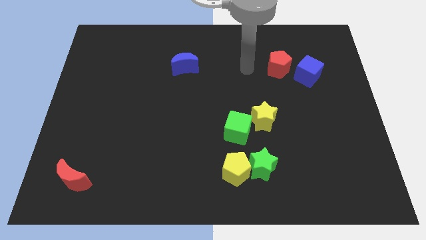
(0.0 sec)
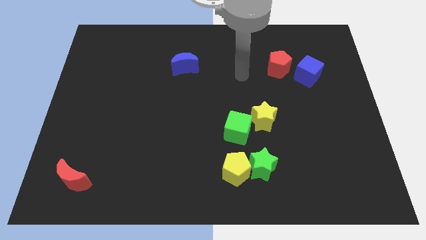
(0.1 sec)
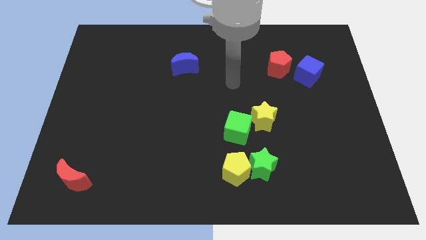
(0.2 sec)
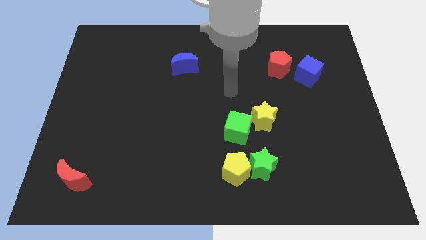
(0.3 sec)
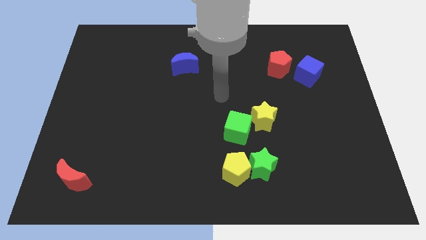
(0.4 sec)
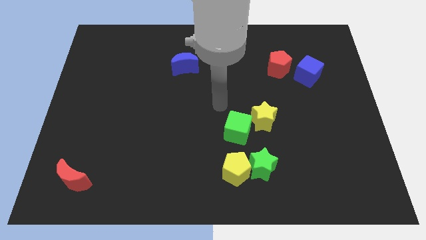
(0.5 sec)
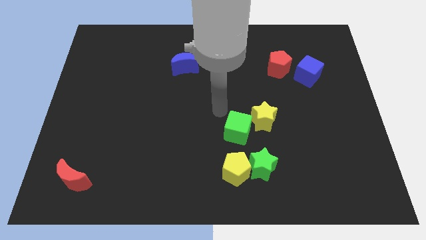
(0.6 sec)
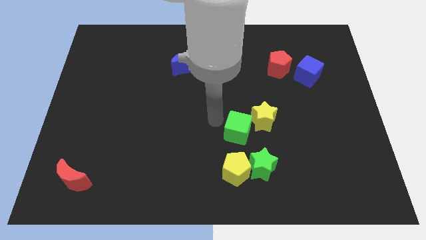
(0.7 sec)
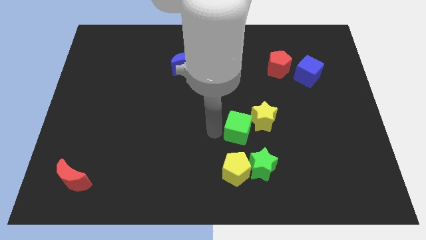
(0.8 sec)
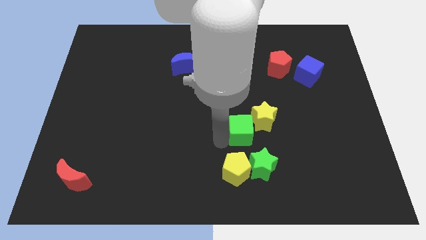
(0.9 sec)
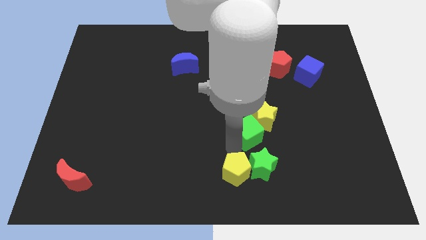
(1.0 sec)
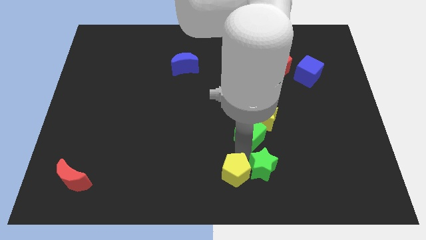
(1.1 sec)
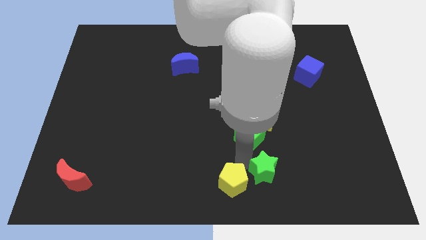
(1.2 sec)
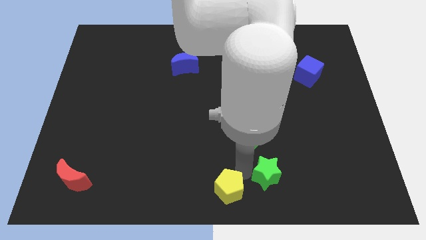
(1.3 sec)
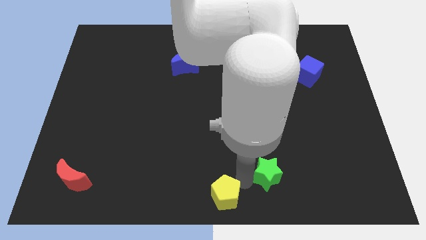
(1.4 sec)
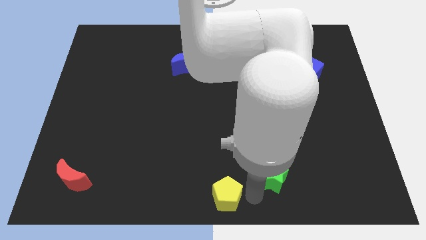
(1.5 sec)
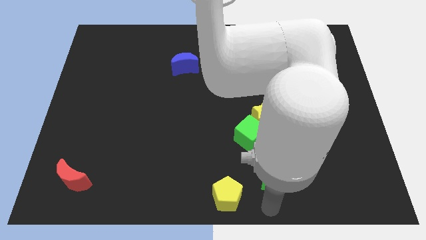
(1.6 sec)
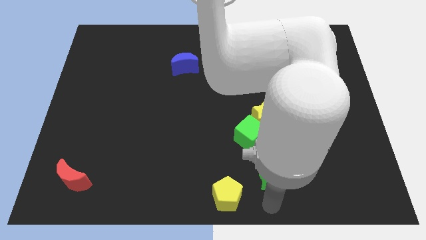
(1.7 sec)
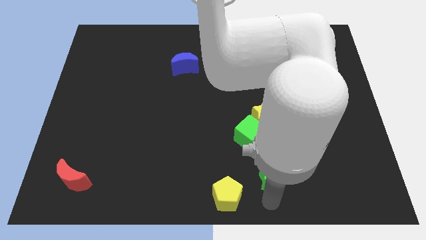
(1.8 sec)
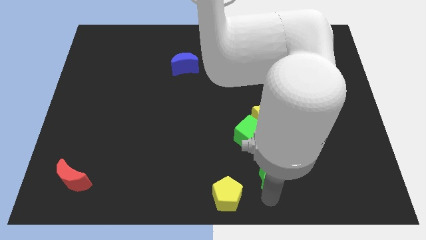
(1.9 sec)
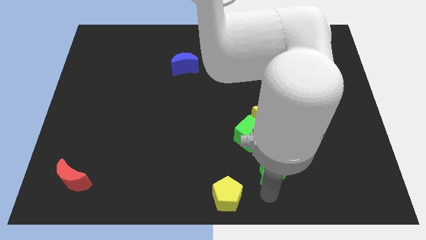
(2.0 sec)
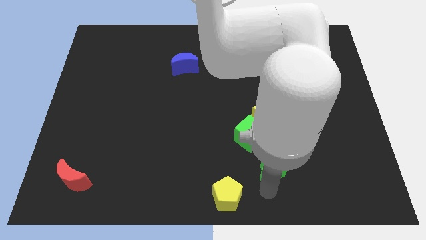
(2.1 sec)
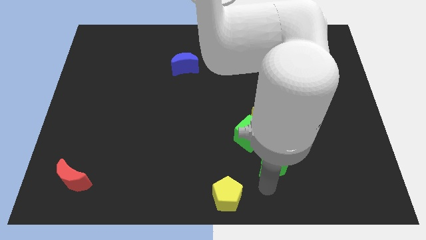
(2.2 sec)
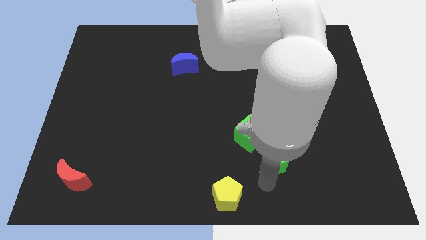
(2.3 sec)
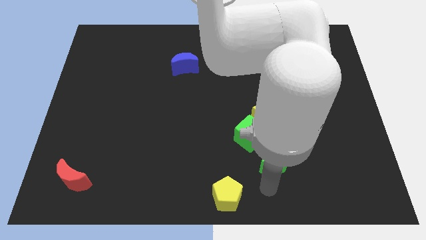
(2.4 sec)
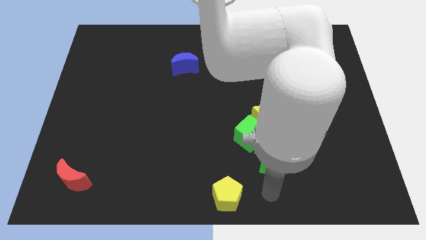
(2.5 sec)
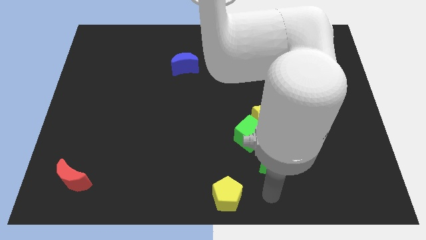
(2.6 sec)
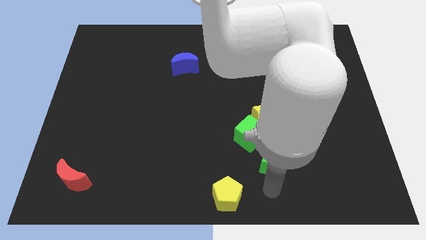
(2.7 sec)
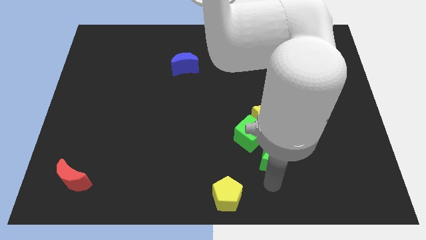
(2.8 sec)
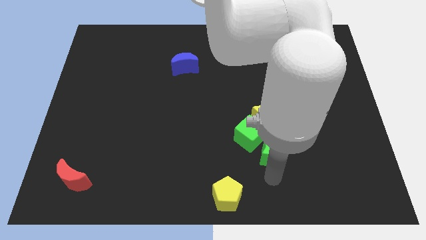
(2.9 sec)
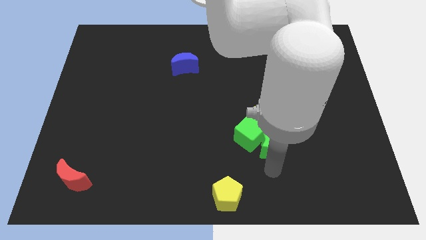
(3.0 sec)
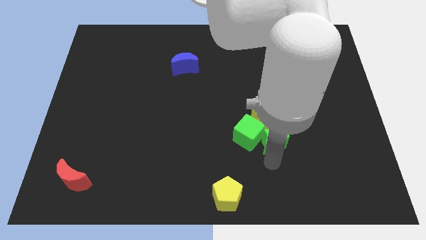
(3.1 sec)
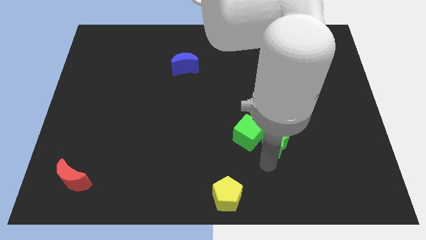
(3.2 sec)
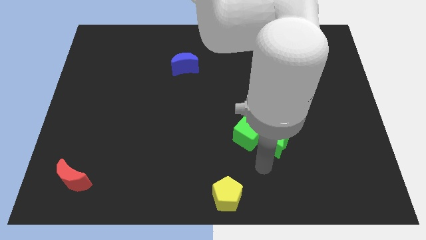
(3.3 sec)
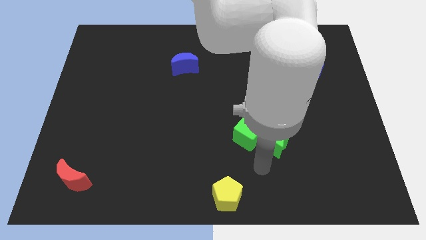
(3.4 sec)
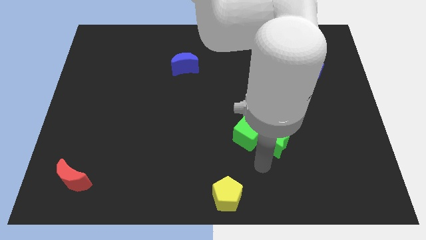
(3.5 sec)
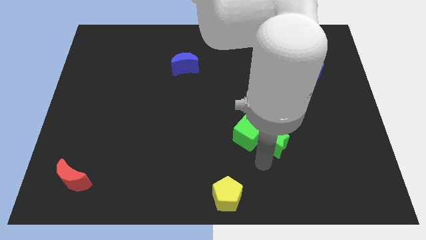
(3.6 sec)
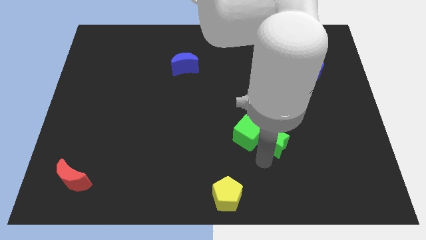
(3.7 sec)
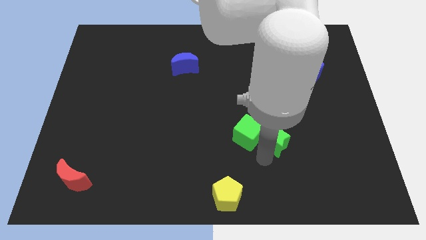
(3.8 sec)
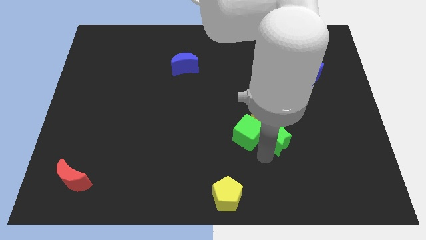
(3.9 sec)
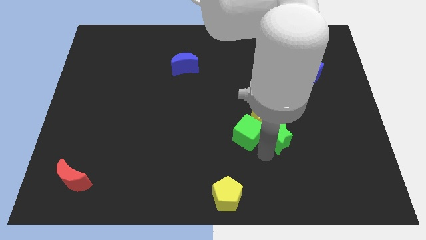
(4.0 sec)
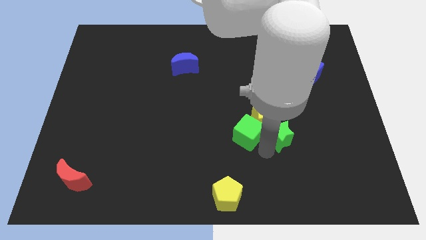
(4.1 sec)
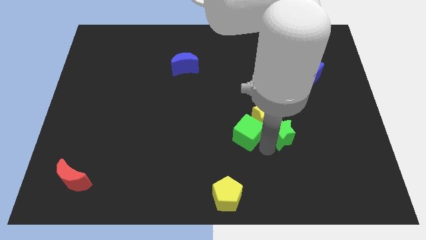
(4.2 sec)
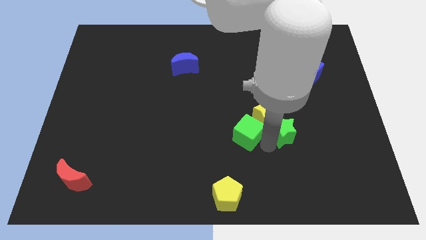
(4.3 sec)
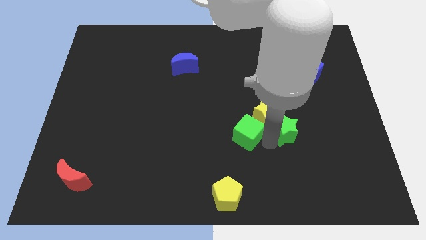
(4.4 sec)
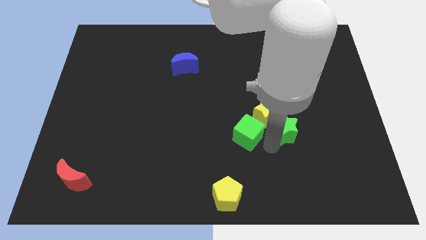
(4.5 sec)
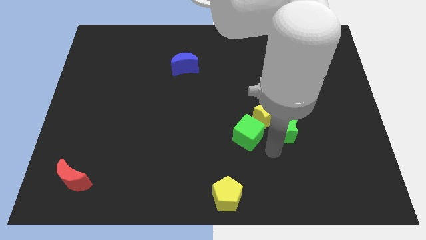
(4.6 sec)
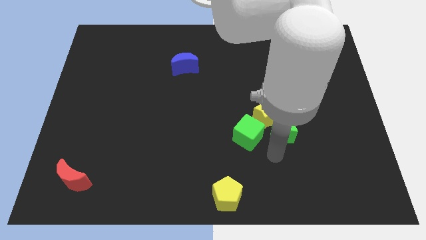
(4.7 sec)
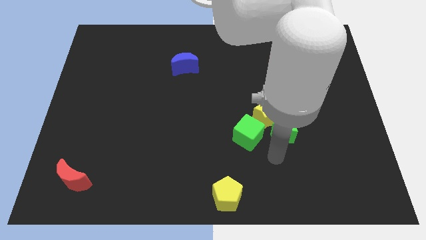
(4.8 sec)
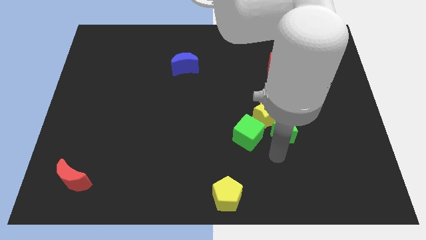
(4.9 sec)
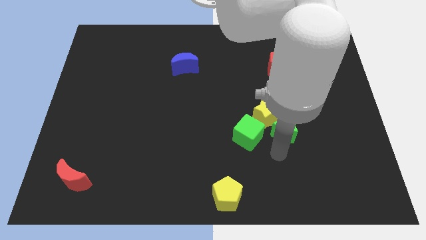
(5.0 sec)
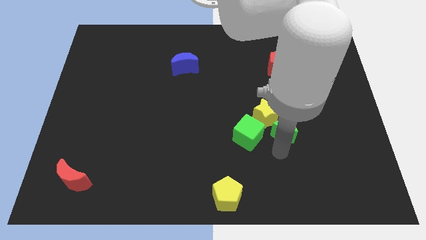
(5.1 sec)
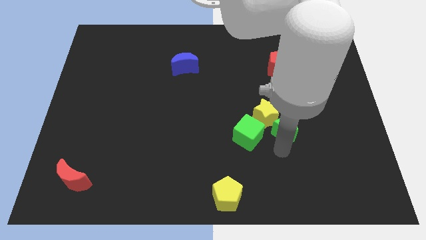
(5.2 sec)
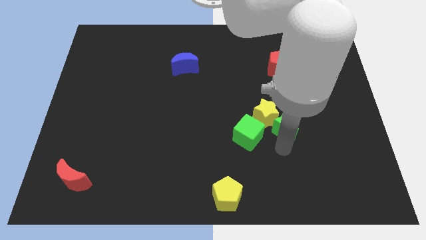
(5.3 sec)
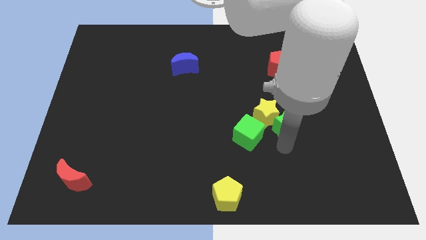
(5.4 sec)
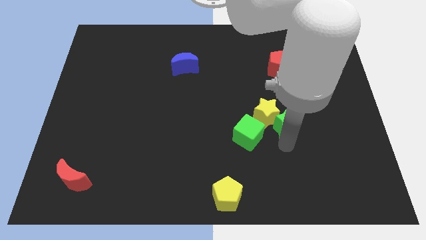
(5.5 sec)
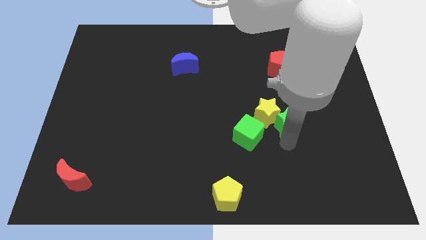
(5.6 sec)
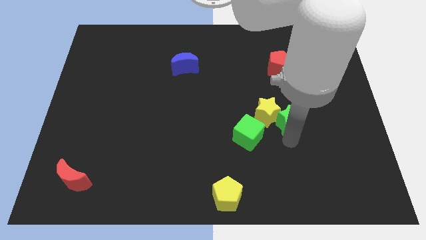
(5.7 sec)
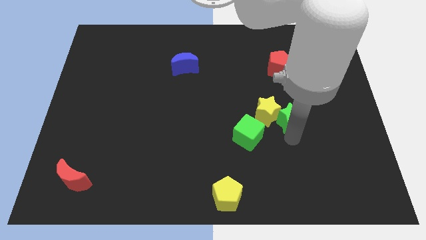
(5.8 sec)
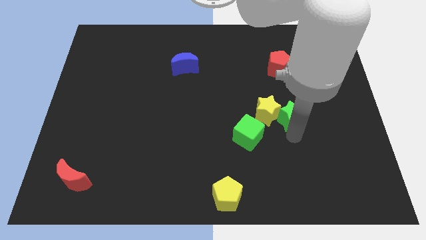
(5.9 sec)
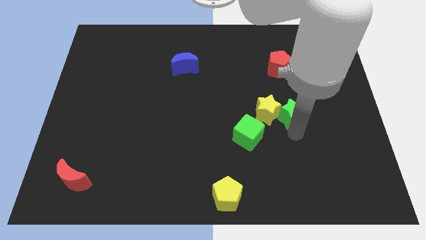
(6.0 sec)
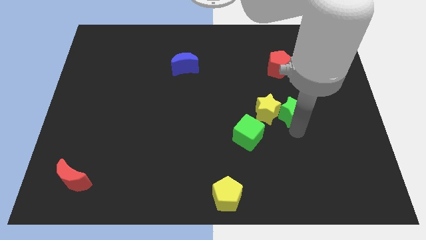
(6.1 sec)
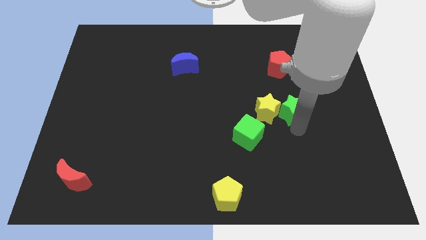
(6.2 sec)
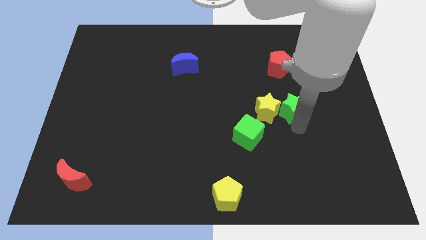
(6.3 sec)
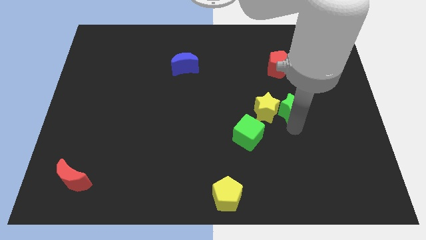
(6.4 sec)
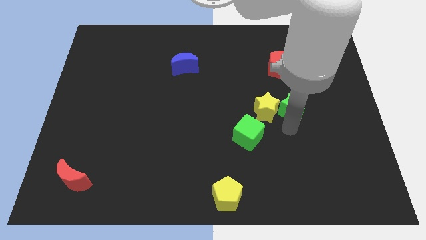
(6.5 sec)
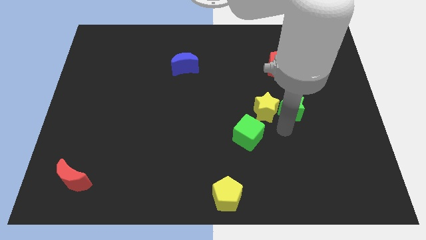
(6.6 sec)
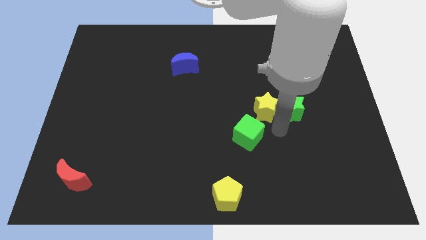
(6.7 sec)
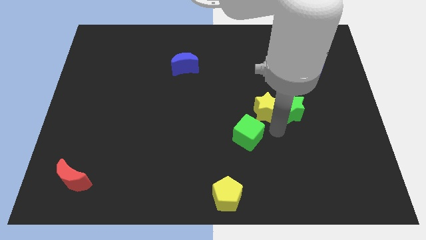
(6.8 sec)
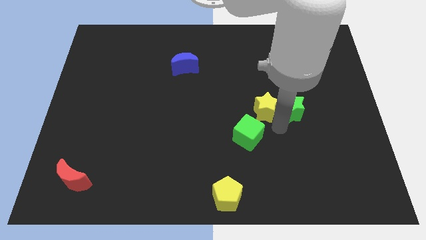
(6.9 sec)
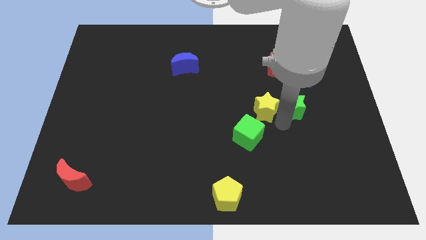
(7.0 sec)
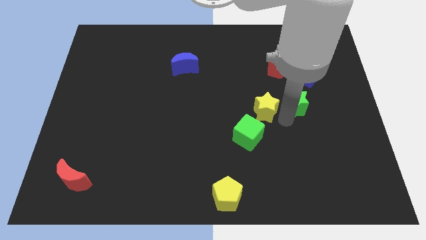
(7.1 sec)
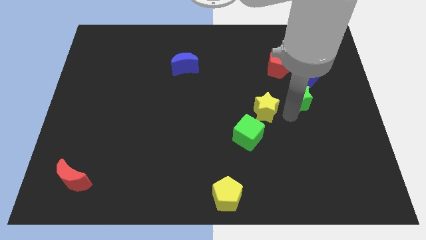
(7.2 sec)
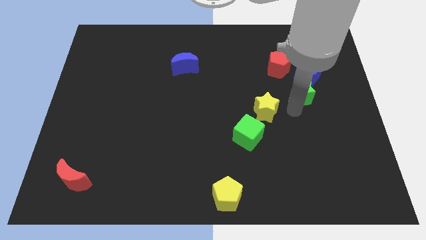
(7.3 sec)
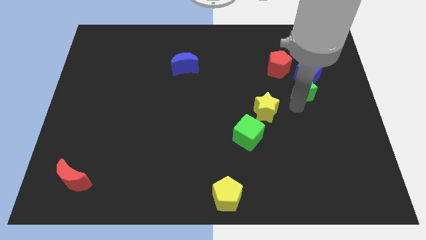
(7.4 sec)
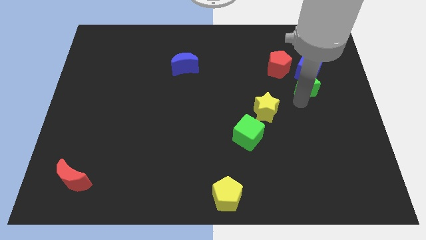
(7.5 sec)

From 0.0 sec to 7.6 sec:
push the green star towards the blue cube
